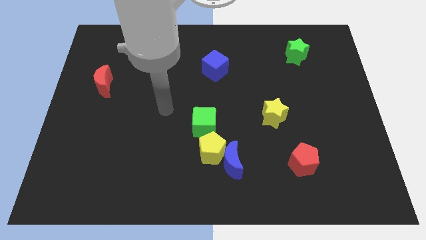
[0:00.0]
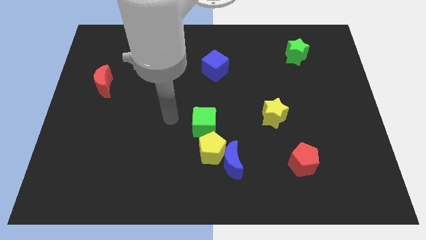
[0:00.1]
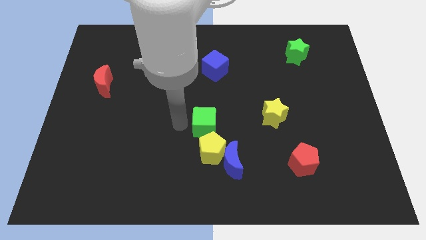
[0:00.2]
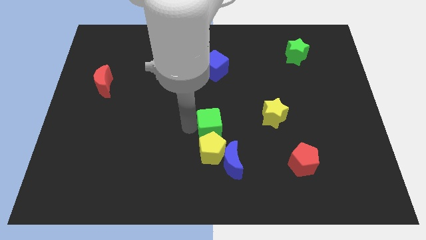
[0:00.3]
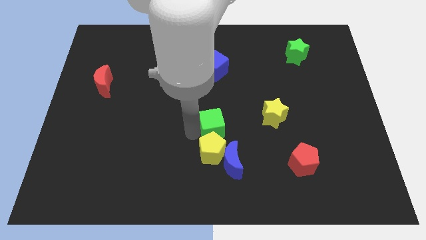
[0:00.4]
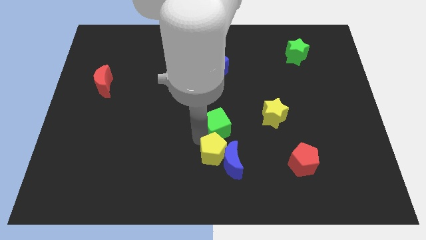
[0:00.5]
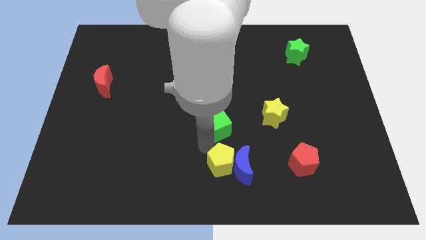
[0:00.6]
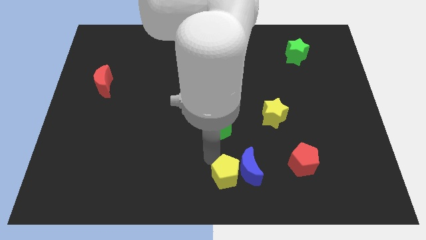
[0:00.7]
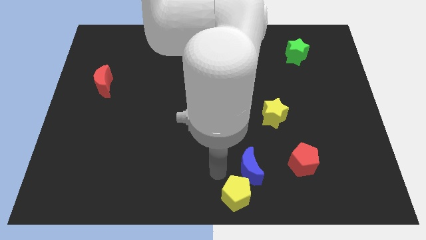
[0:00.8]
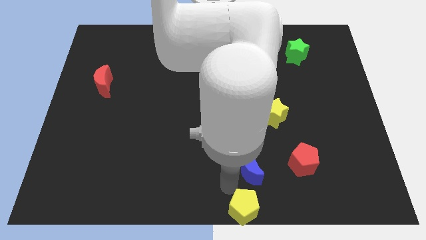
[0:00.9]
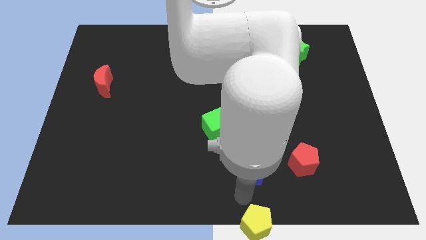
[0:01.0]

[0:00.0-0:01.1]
pull the blue moon apart from the yellow pentagon

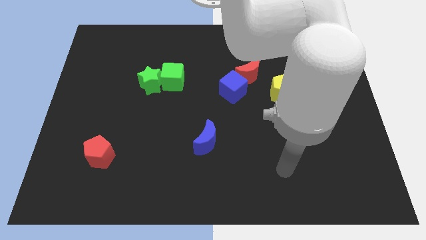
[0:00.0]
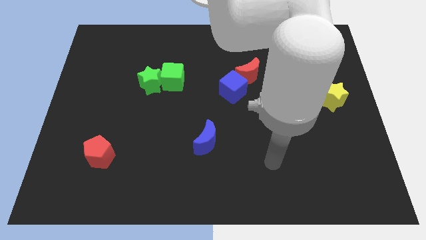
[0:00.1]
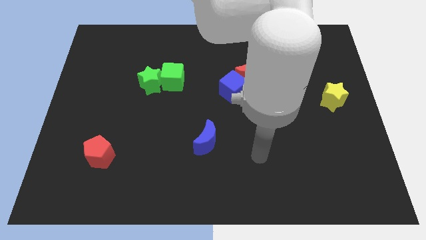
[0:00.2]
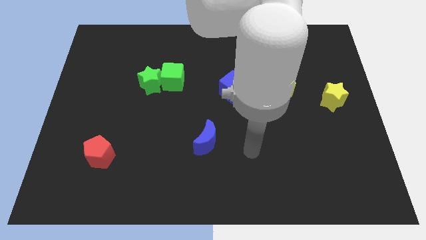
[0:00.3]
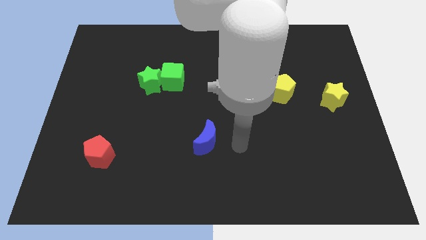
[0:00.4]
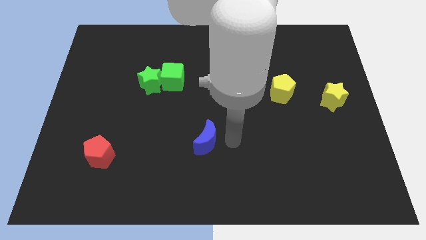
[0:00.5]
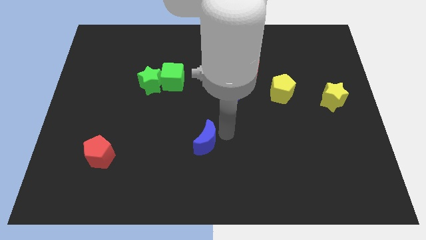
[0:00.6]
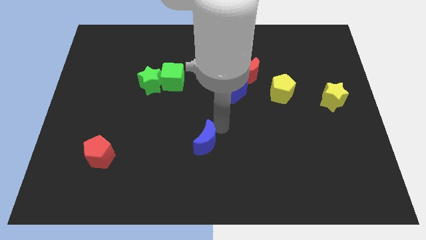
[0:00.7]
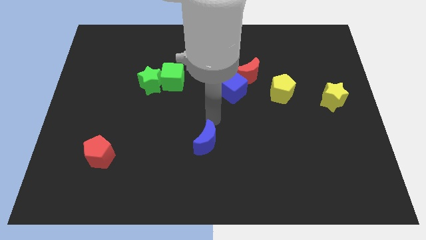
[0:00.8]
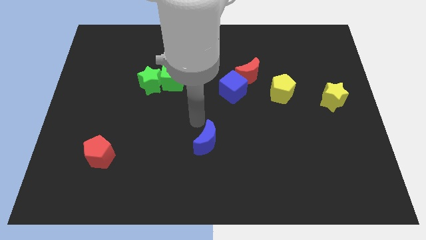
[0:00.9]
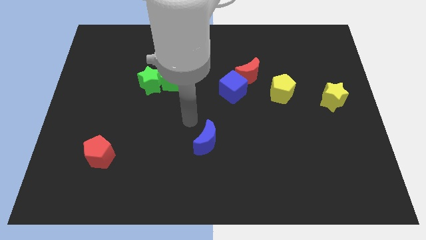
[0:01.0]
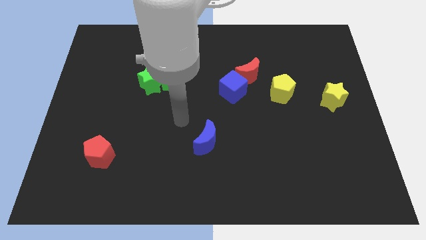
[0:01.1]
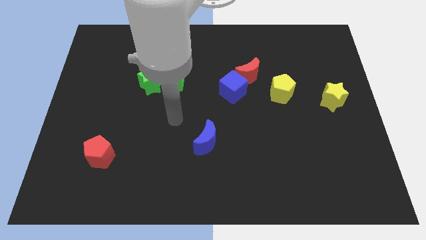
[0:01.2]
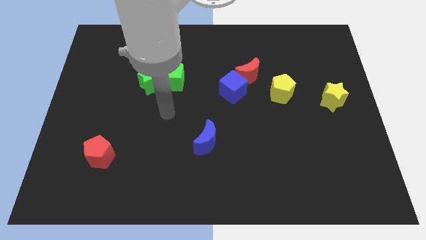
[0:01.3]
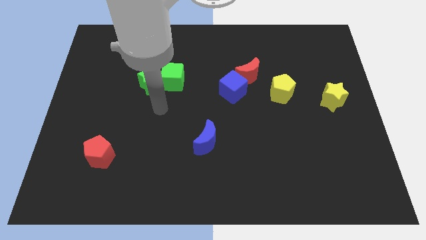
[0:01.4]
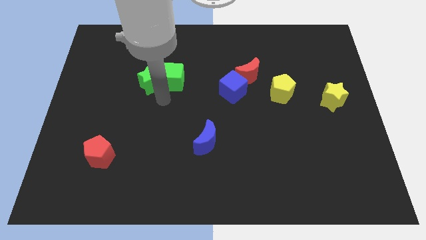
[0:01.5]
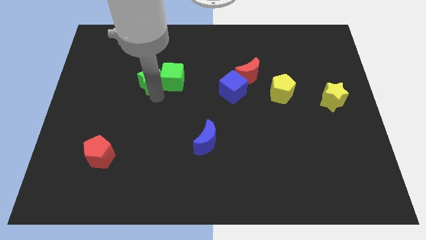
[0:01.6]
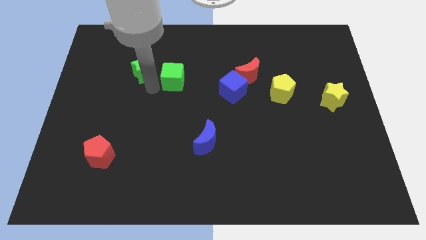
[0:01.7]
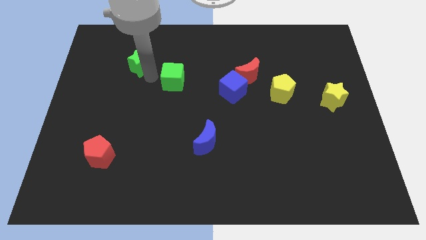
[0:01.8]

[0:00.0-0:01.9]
separate the green cube from the green star

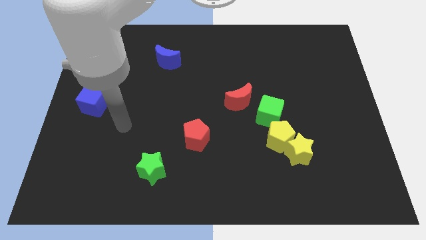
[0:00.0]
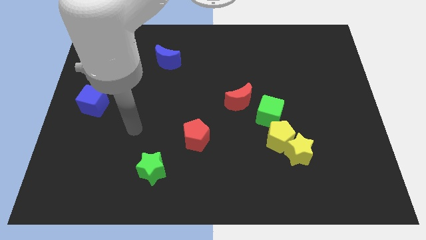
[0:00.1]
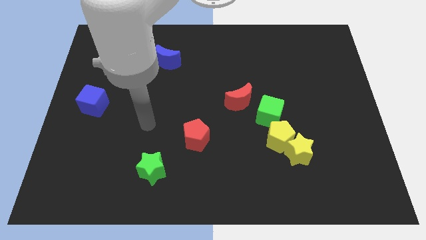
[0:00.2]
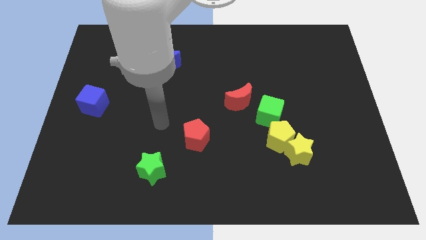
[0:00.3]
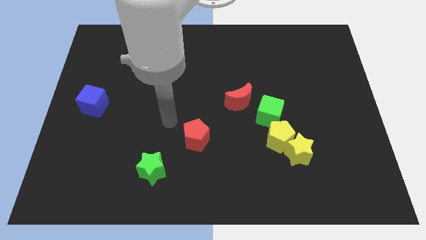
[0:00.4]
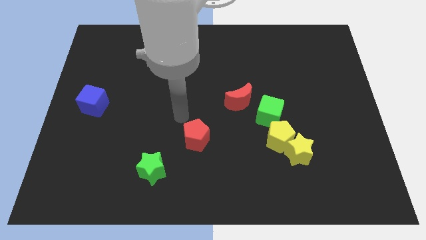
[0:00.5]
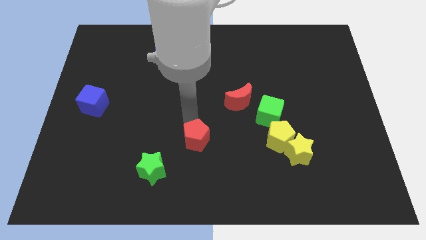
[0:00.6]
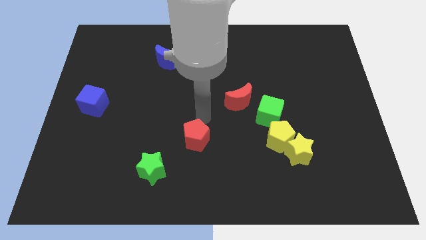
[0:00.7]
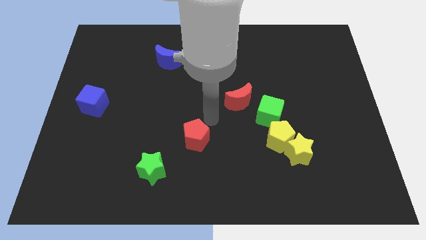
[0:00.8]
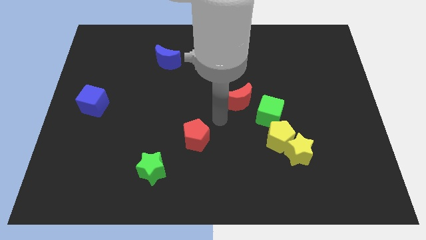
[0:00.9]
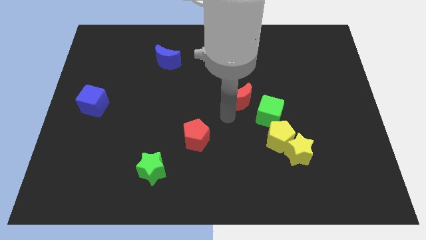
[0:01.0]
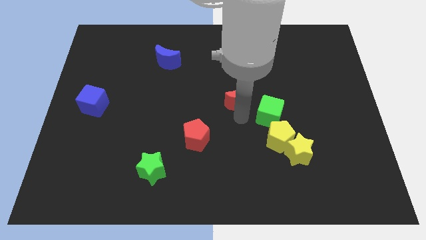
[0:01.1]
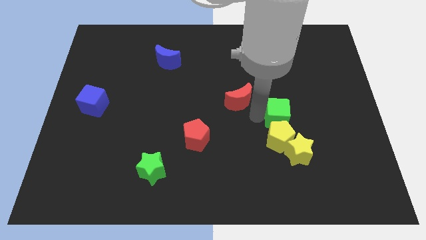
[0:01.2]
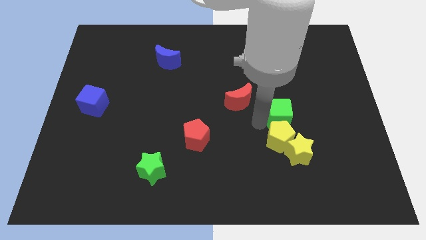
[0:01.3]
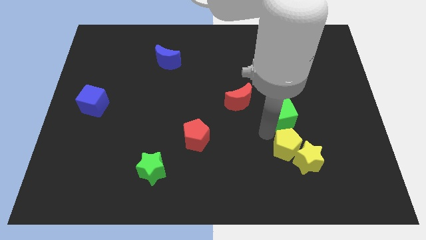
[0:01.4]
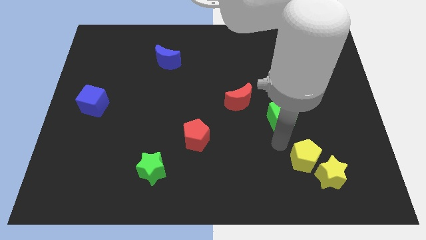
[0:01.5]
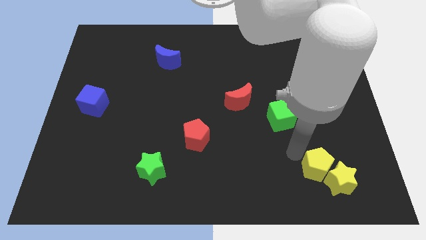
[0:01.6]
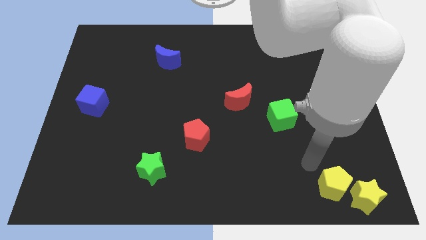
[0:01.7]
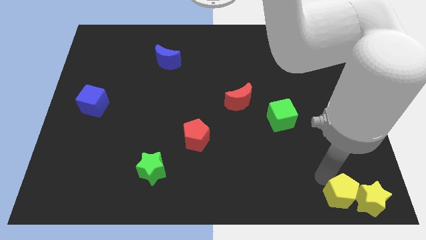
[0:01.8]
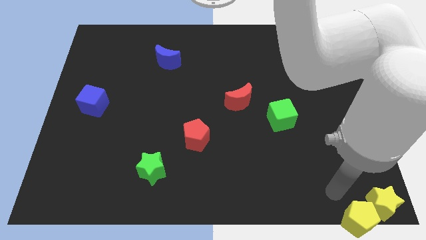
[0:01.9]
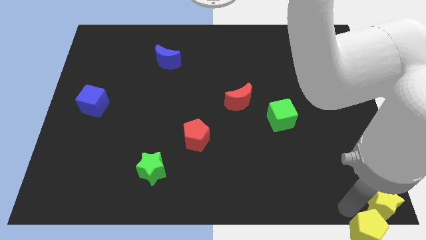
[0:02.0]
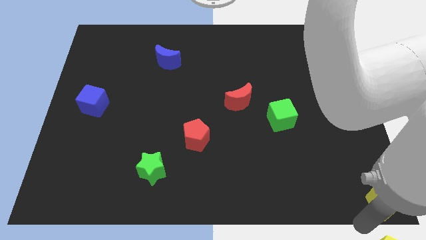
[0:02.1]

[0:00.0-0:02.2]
move the yellow star away from the yellow pentagon

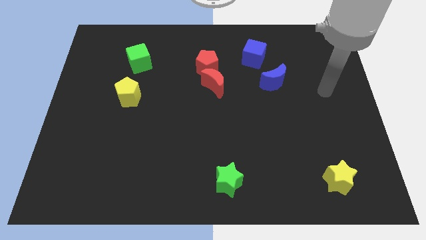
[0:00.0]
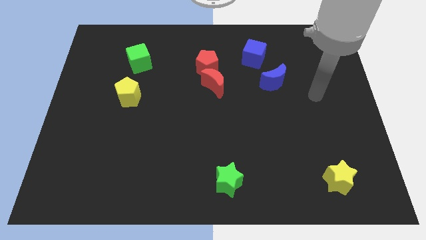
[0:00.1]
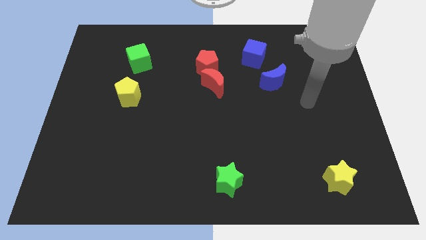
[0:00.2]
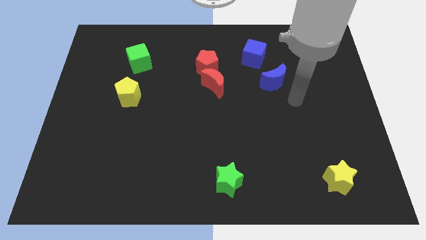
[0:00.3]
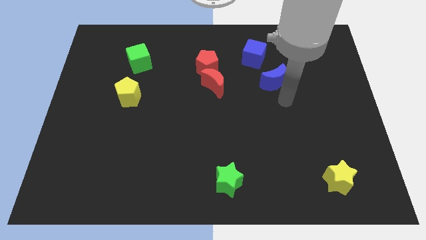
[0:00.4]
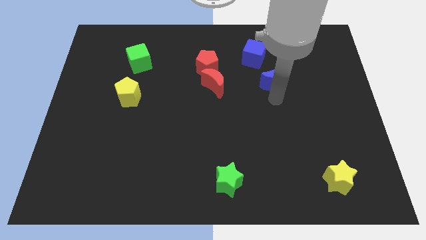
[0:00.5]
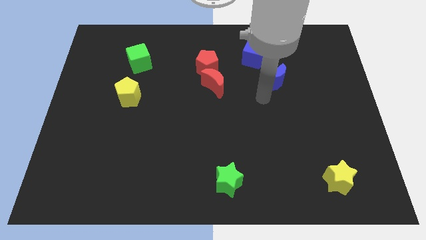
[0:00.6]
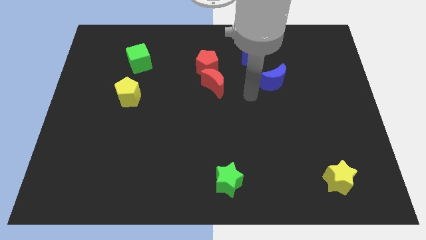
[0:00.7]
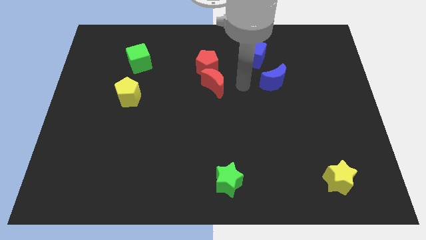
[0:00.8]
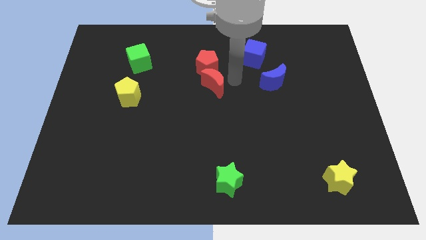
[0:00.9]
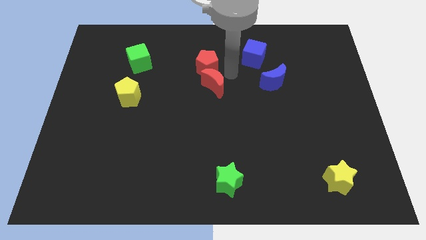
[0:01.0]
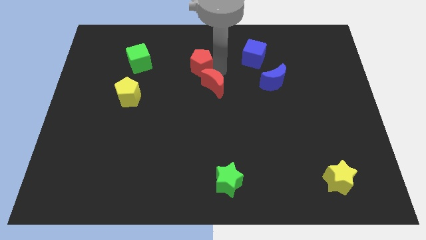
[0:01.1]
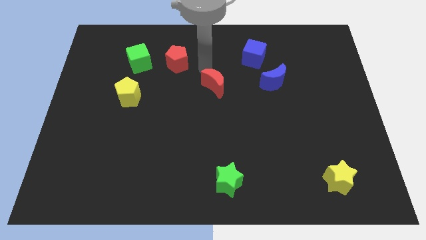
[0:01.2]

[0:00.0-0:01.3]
separate the red moon from the red pentagon

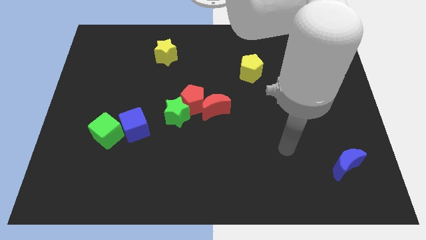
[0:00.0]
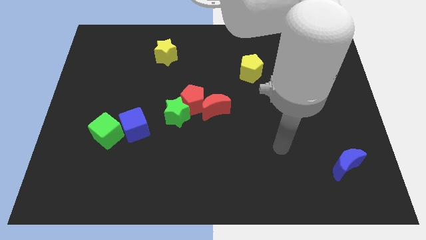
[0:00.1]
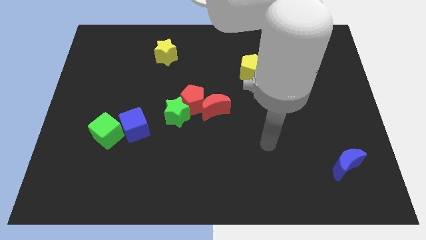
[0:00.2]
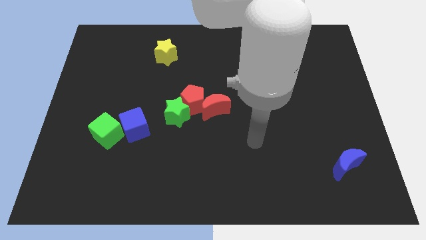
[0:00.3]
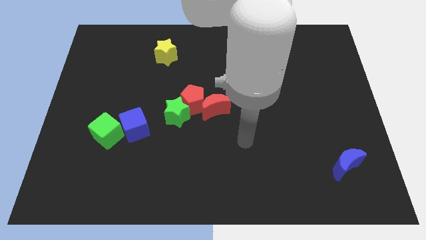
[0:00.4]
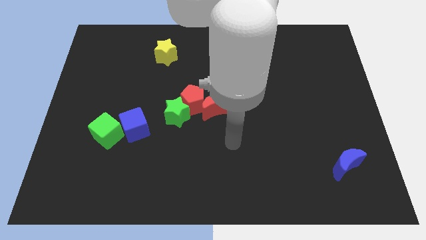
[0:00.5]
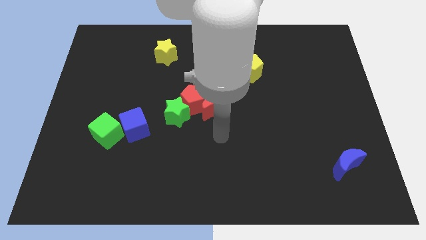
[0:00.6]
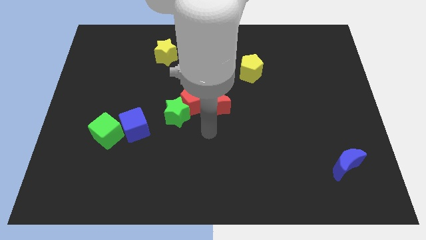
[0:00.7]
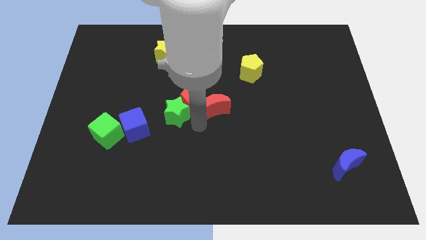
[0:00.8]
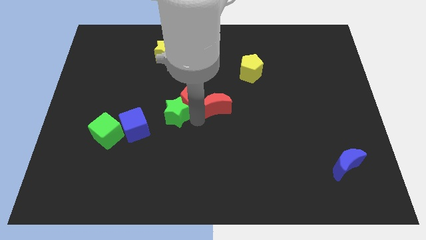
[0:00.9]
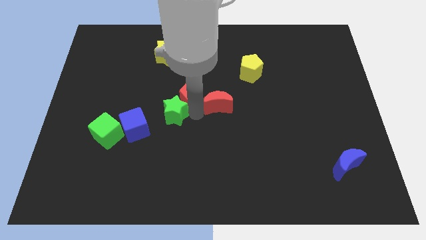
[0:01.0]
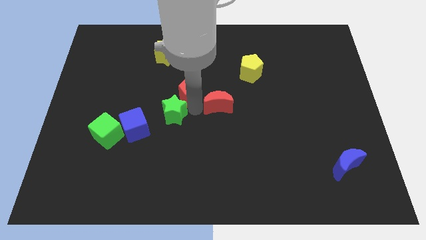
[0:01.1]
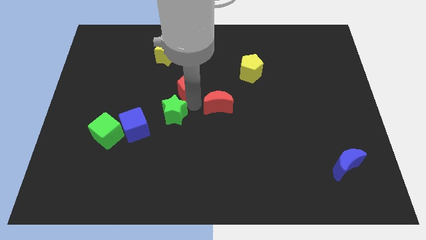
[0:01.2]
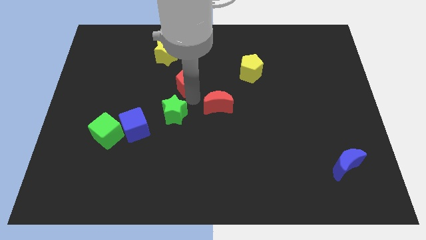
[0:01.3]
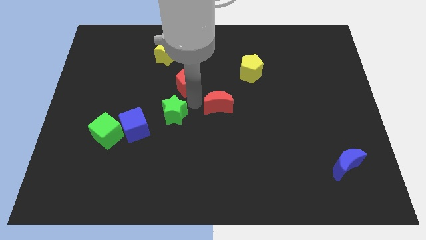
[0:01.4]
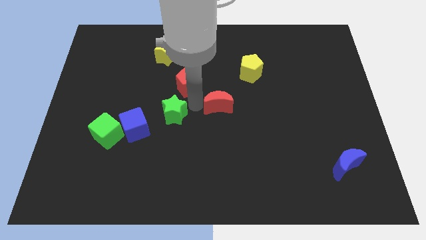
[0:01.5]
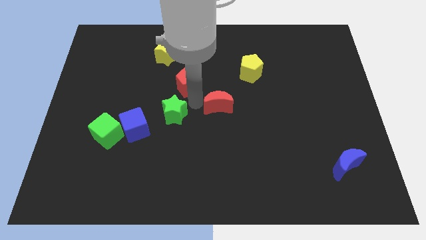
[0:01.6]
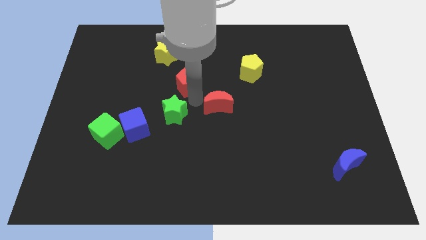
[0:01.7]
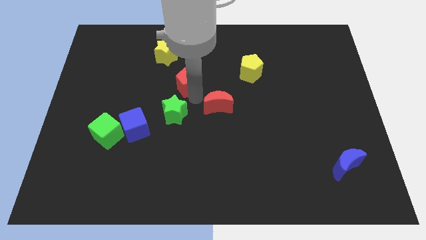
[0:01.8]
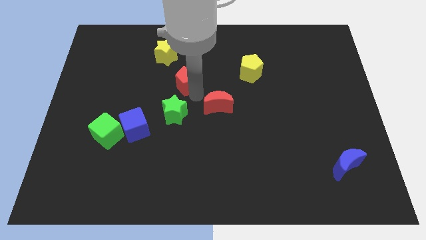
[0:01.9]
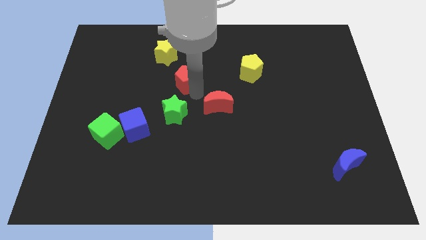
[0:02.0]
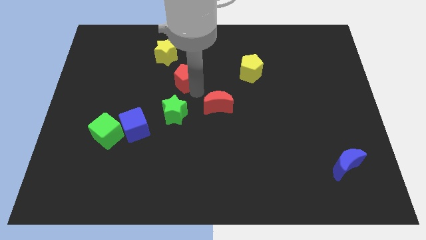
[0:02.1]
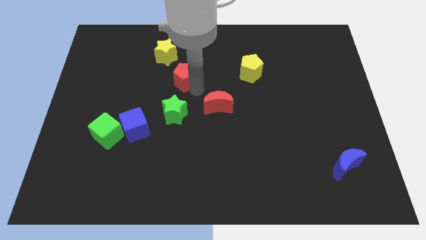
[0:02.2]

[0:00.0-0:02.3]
pull the red pentagon apart from the red moon and green star

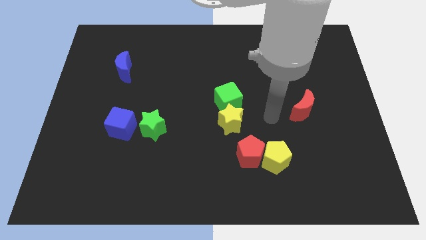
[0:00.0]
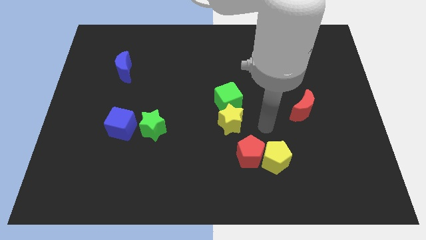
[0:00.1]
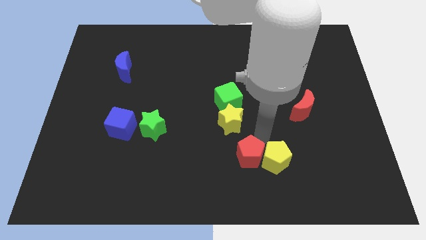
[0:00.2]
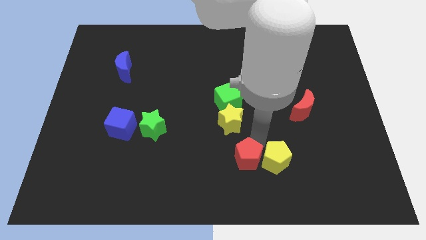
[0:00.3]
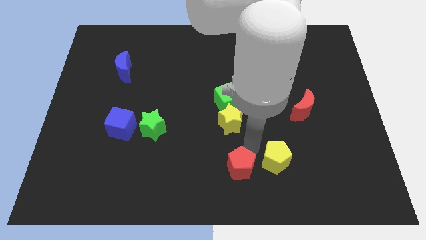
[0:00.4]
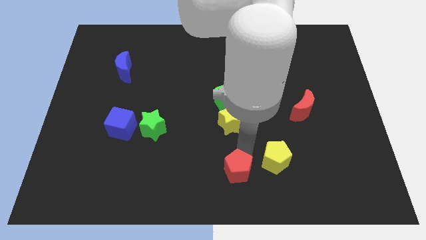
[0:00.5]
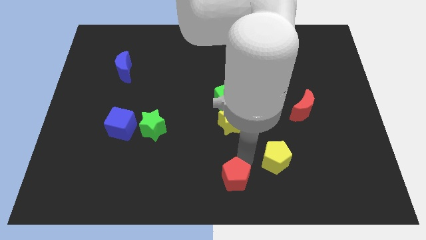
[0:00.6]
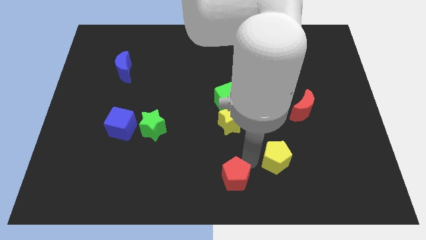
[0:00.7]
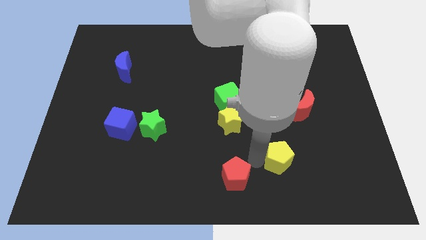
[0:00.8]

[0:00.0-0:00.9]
pull the yellow pentagon apart from the red pentagon
